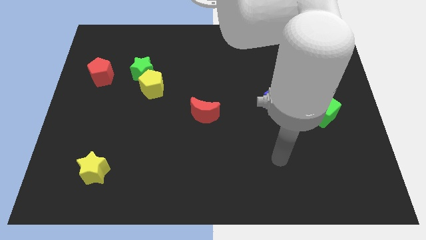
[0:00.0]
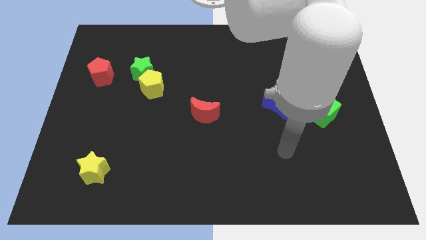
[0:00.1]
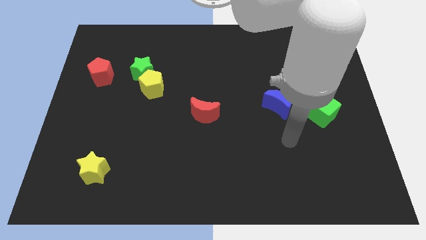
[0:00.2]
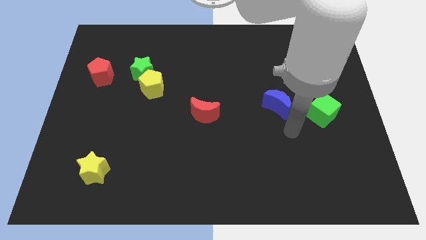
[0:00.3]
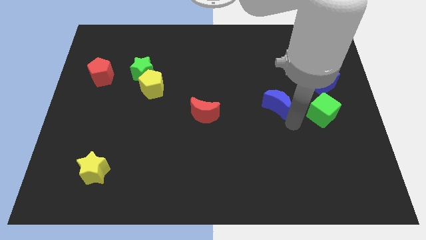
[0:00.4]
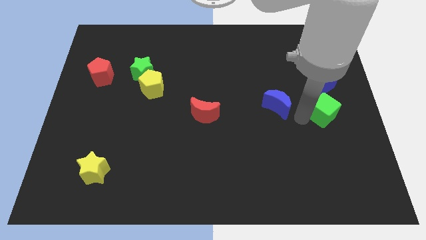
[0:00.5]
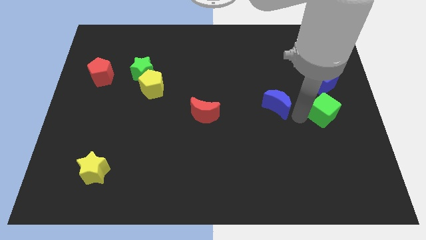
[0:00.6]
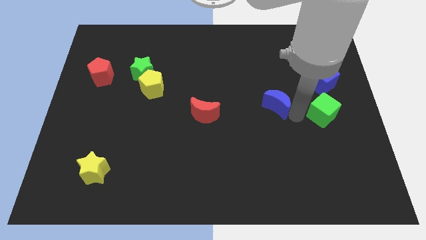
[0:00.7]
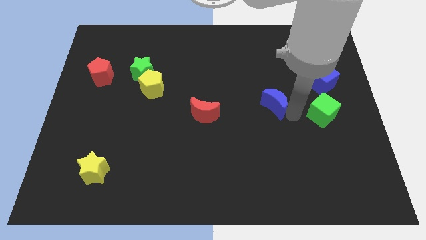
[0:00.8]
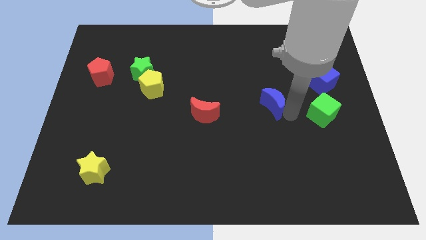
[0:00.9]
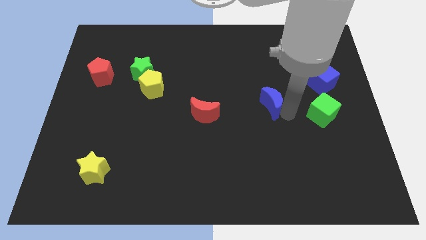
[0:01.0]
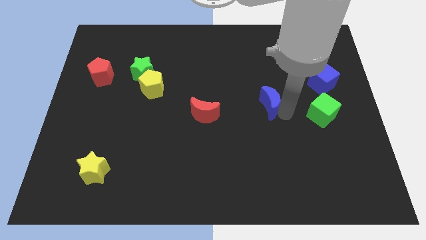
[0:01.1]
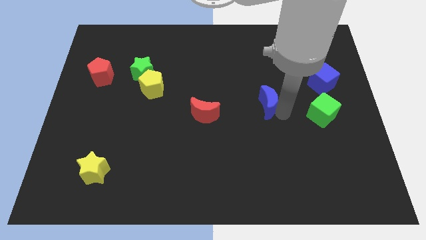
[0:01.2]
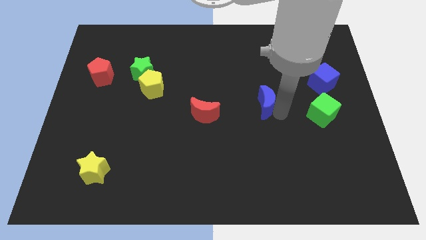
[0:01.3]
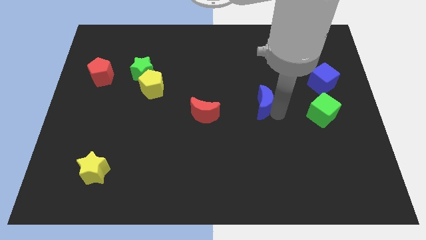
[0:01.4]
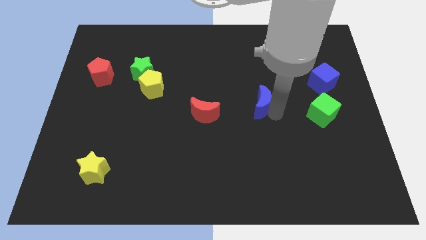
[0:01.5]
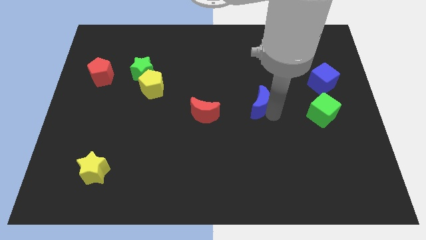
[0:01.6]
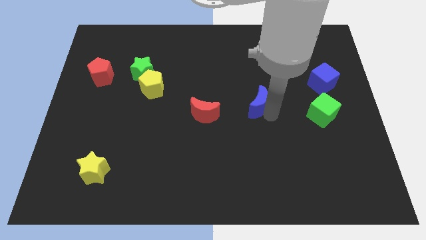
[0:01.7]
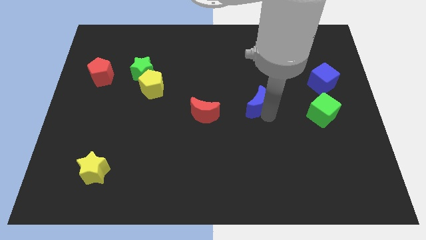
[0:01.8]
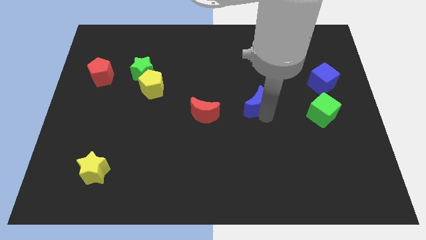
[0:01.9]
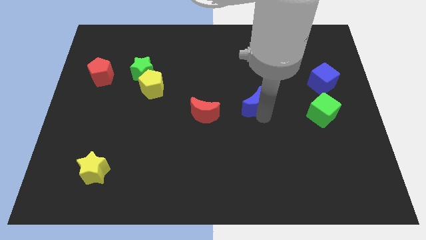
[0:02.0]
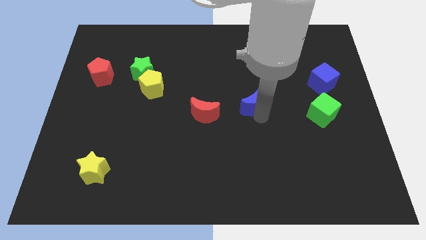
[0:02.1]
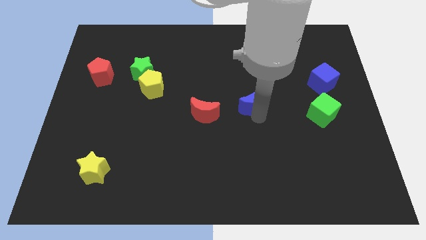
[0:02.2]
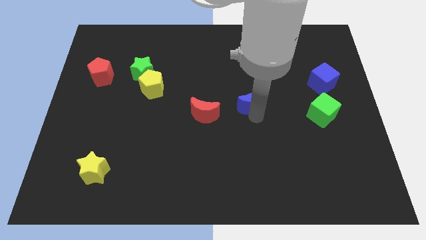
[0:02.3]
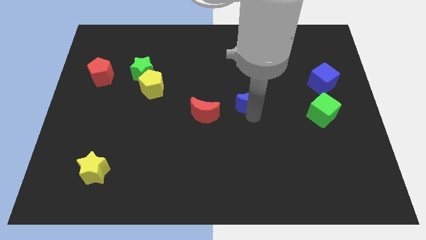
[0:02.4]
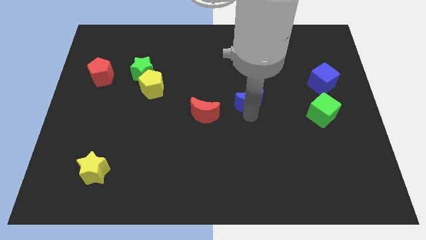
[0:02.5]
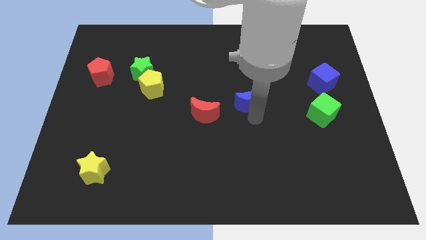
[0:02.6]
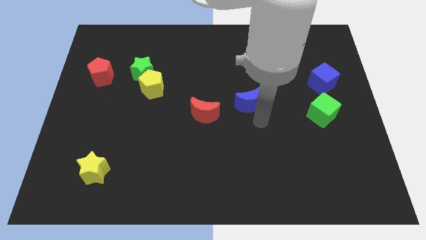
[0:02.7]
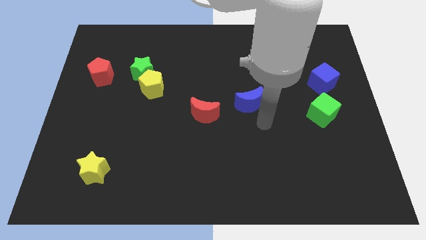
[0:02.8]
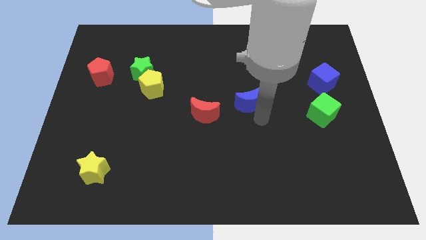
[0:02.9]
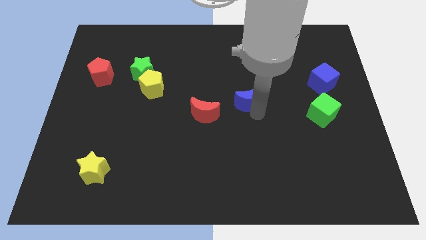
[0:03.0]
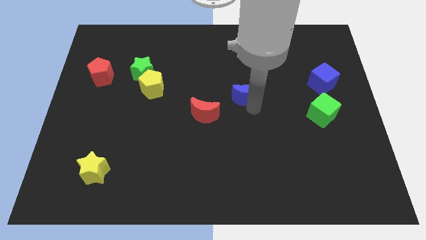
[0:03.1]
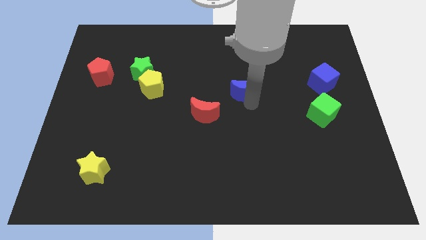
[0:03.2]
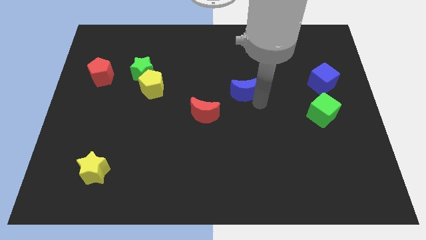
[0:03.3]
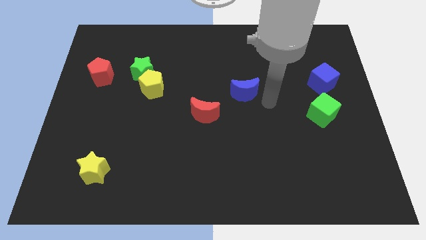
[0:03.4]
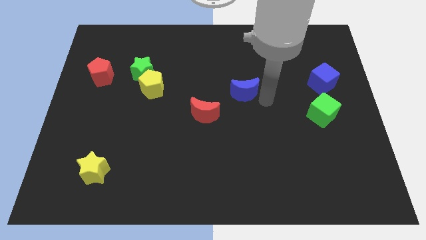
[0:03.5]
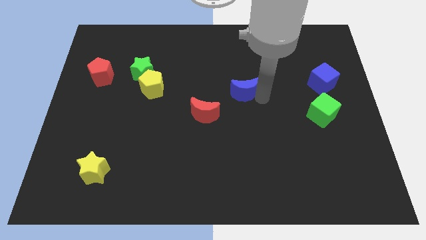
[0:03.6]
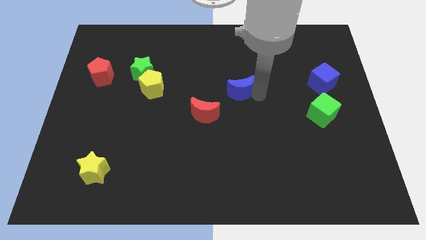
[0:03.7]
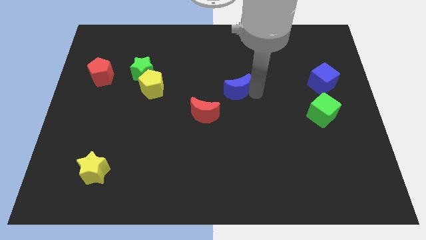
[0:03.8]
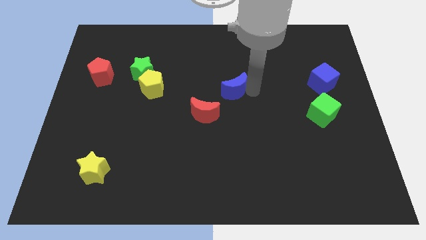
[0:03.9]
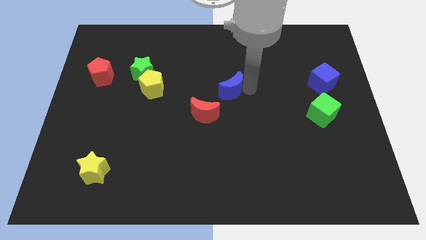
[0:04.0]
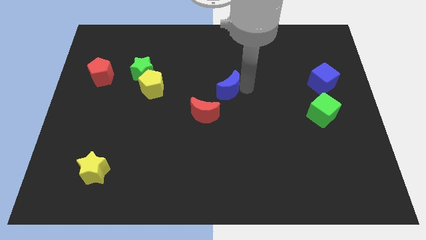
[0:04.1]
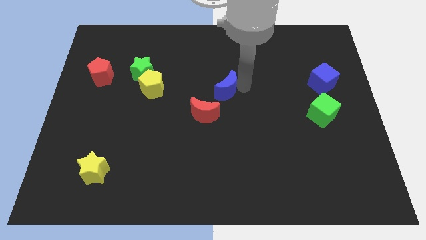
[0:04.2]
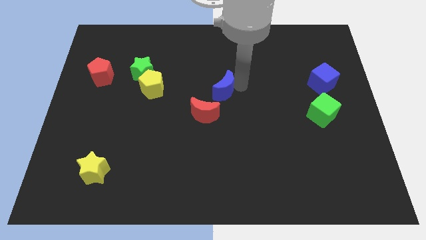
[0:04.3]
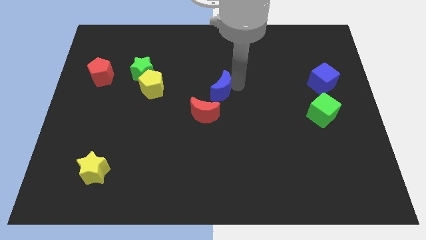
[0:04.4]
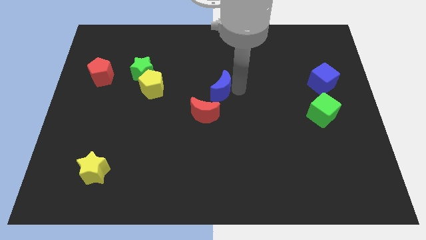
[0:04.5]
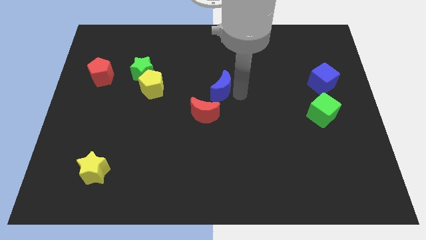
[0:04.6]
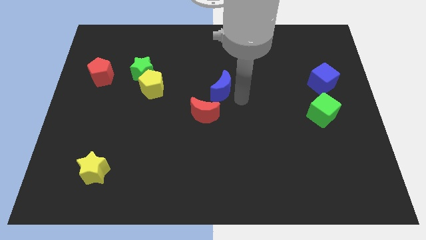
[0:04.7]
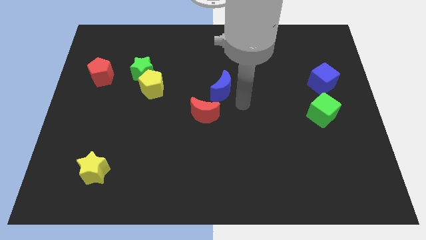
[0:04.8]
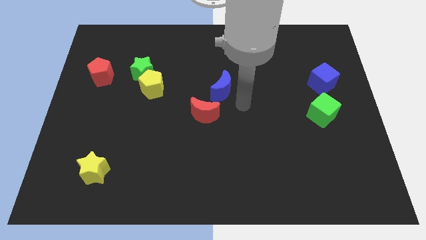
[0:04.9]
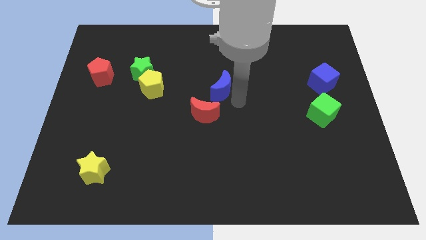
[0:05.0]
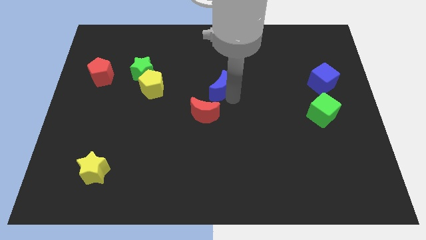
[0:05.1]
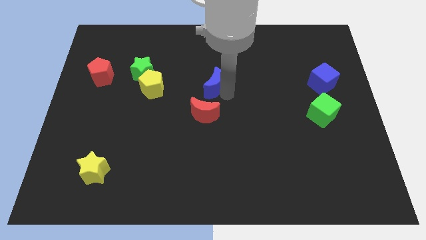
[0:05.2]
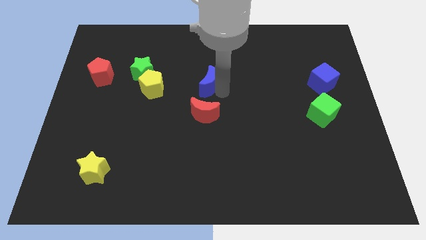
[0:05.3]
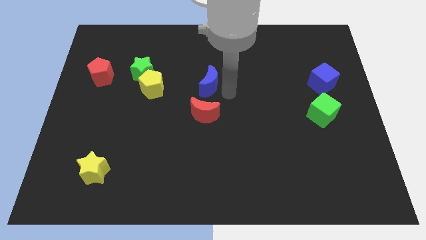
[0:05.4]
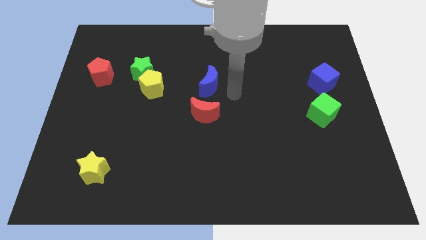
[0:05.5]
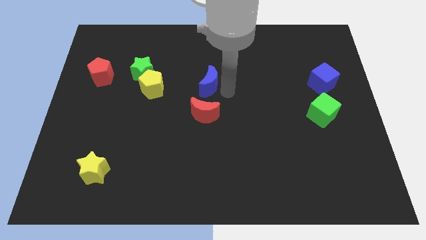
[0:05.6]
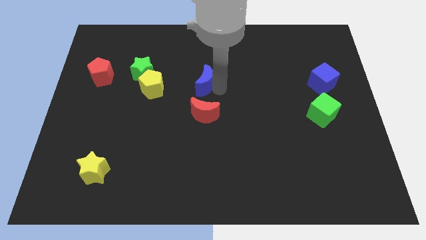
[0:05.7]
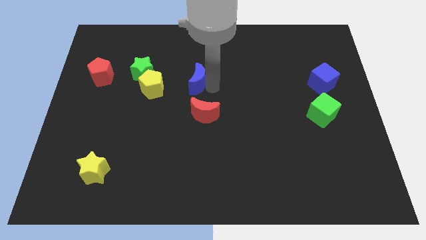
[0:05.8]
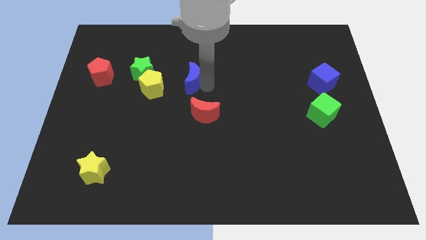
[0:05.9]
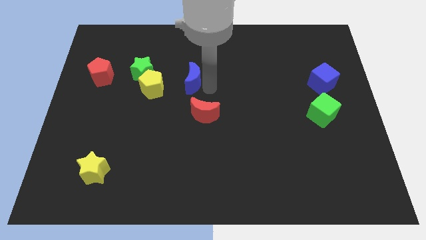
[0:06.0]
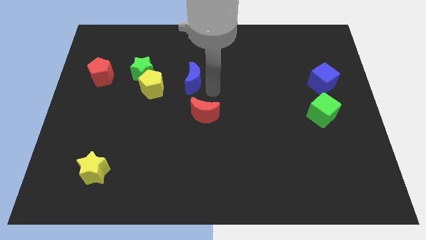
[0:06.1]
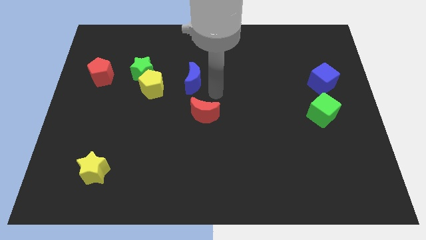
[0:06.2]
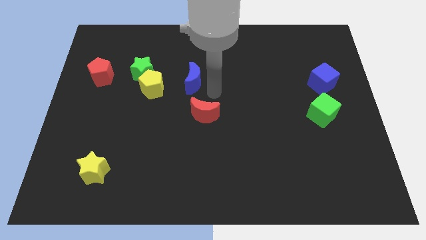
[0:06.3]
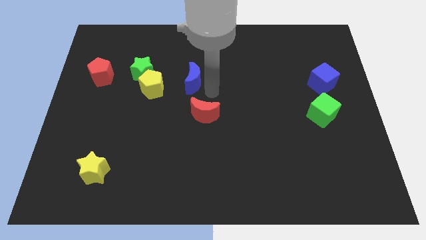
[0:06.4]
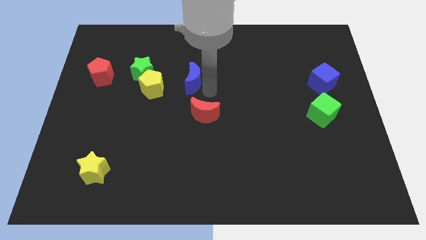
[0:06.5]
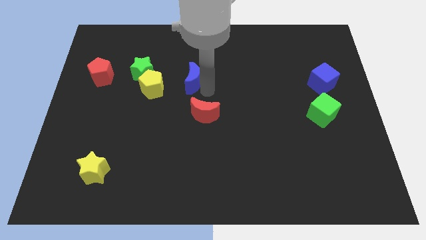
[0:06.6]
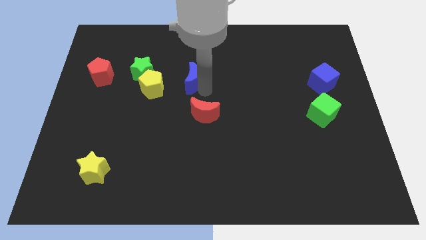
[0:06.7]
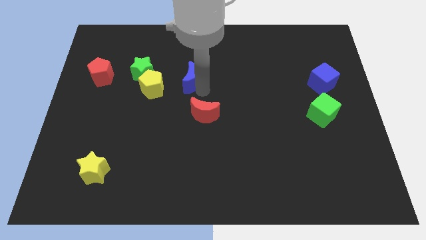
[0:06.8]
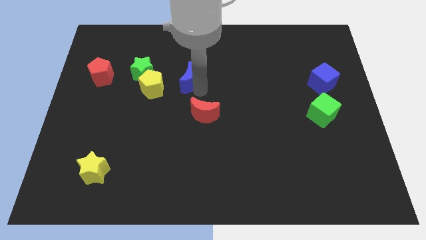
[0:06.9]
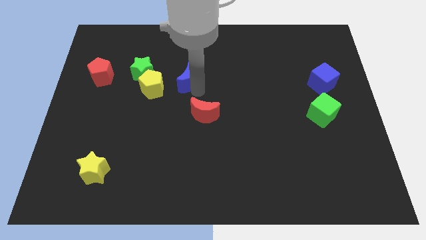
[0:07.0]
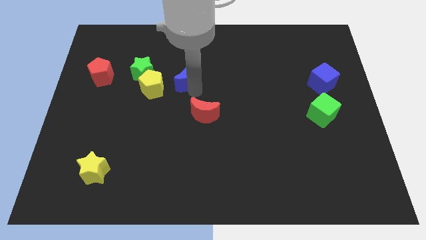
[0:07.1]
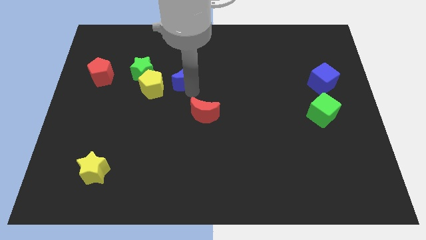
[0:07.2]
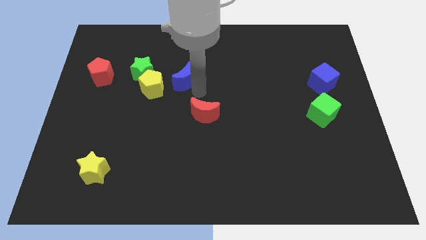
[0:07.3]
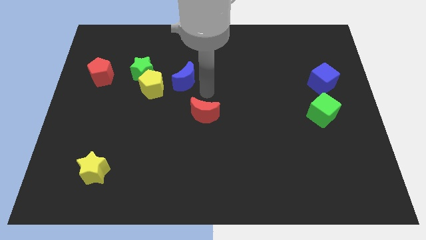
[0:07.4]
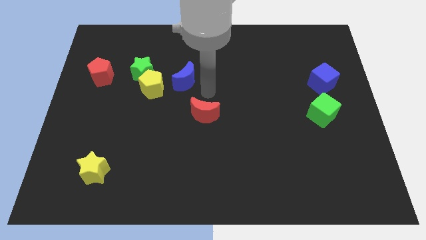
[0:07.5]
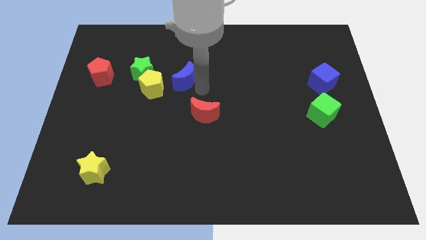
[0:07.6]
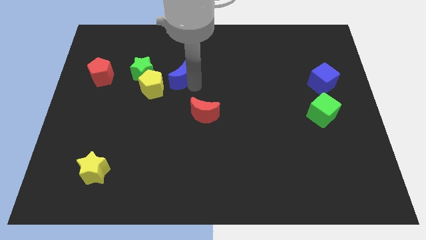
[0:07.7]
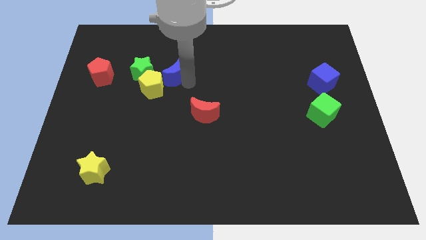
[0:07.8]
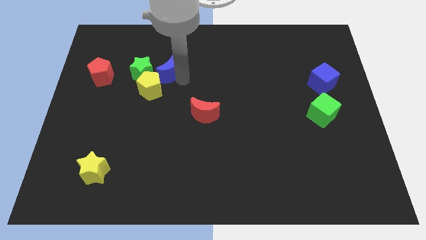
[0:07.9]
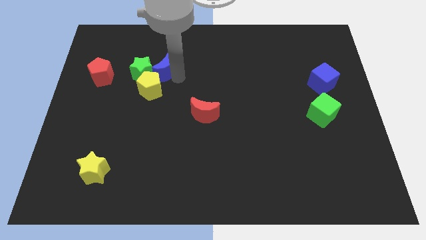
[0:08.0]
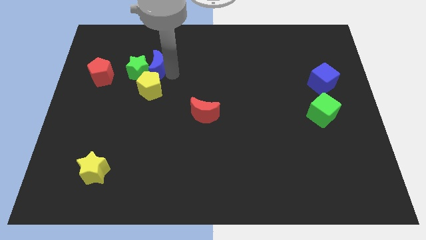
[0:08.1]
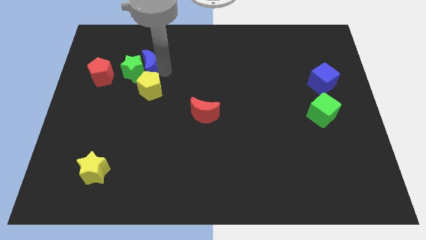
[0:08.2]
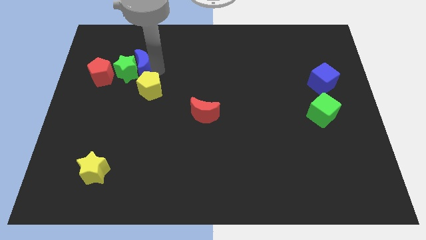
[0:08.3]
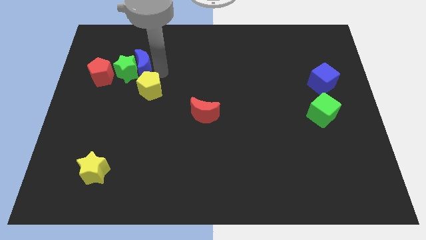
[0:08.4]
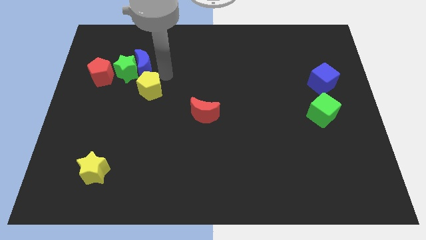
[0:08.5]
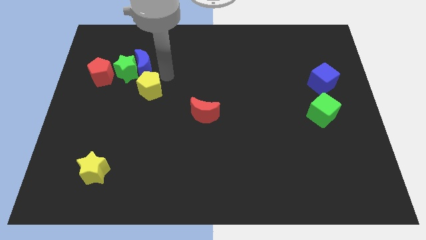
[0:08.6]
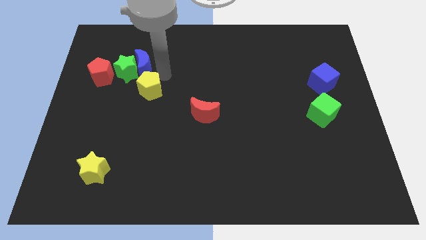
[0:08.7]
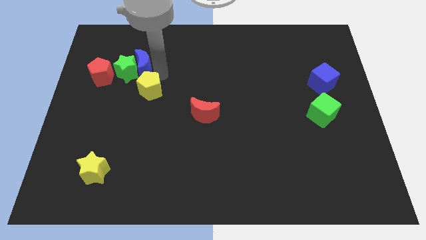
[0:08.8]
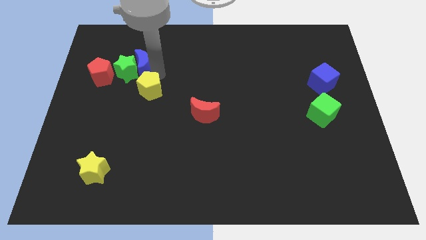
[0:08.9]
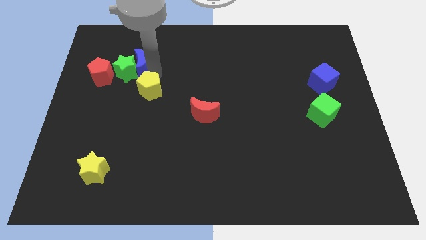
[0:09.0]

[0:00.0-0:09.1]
move the blue moon to the top right of the red pentagon
